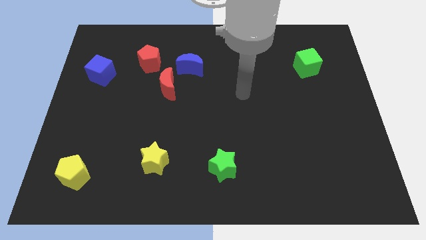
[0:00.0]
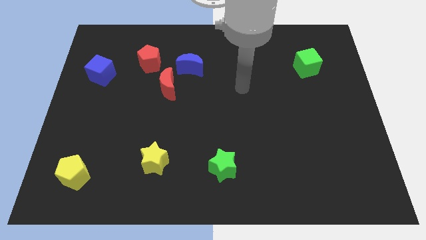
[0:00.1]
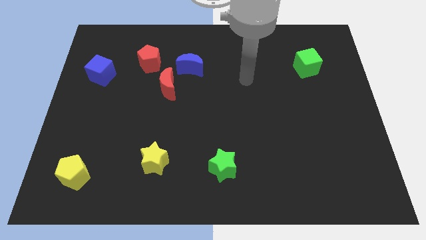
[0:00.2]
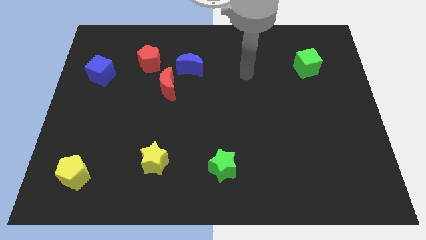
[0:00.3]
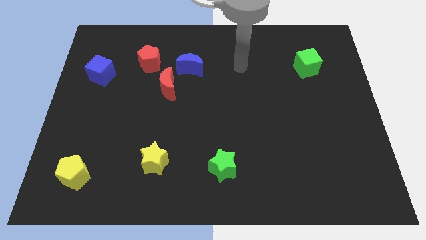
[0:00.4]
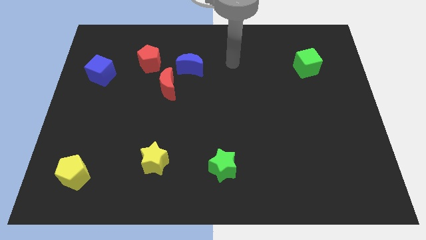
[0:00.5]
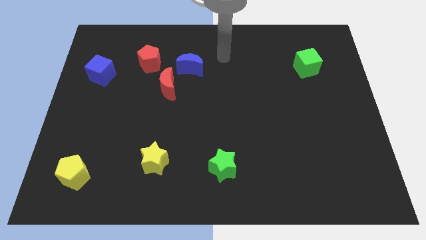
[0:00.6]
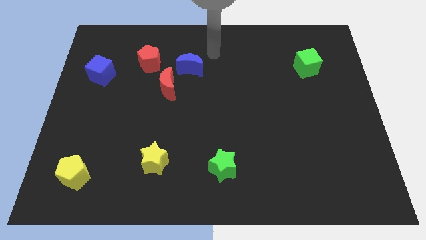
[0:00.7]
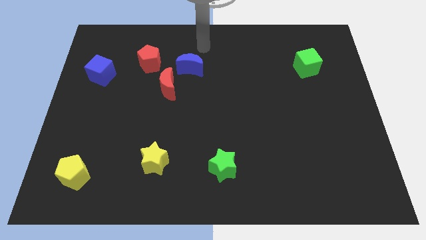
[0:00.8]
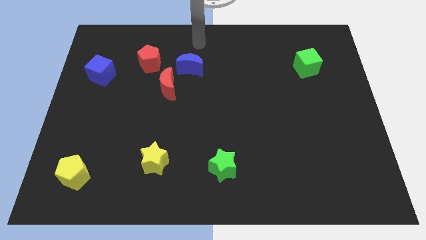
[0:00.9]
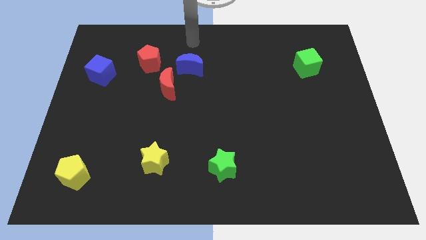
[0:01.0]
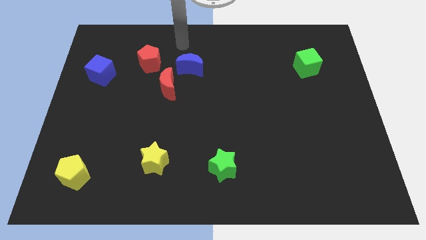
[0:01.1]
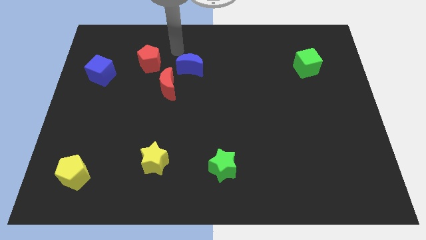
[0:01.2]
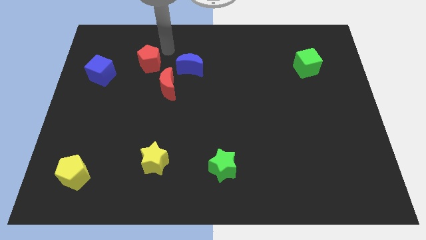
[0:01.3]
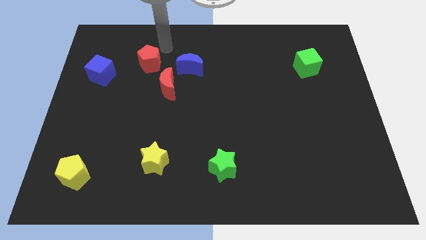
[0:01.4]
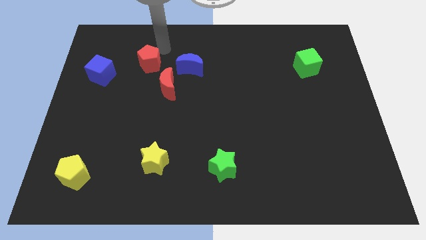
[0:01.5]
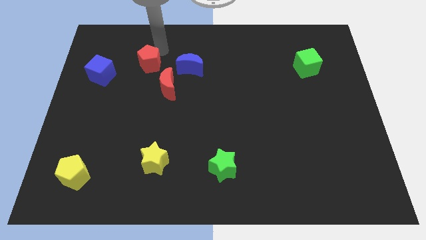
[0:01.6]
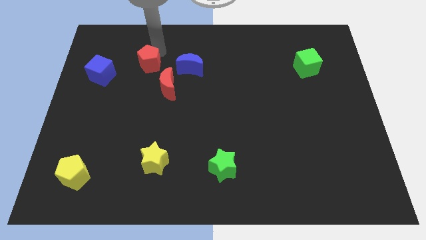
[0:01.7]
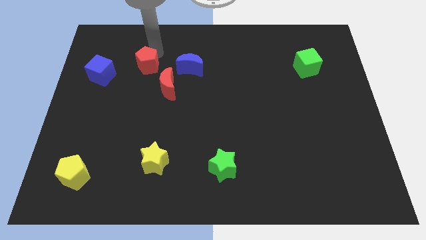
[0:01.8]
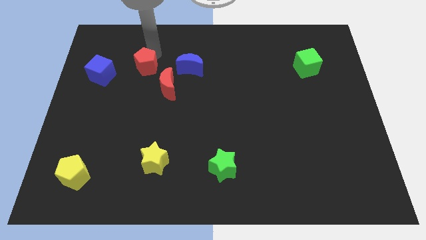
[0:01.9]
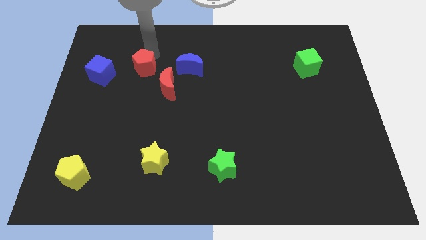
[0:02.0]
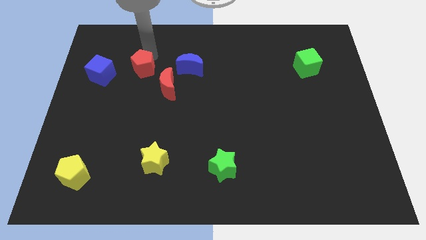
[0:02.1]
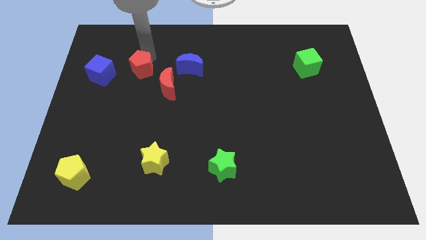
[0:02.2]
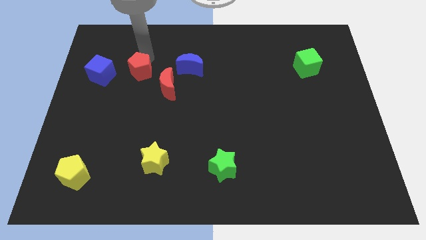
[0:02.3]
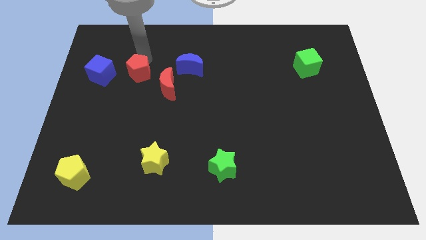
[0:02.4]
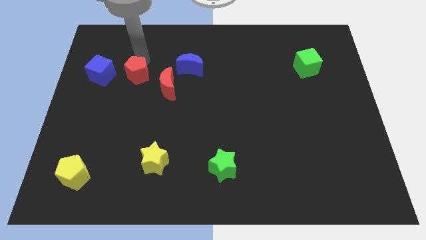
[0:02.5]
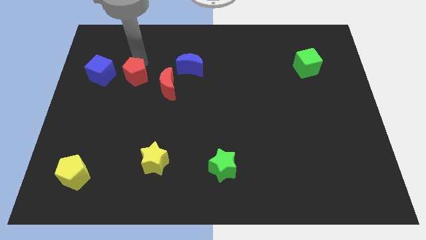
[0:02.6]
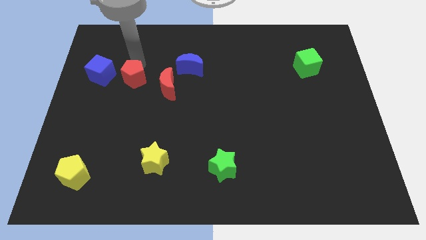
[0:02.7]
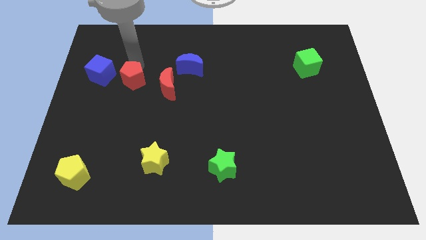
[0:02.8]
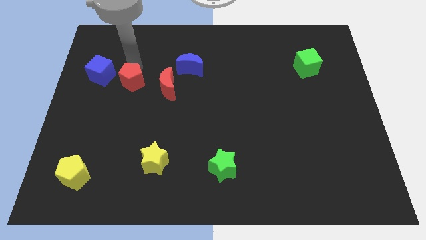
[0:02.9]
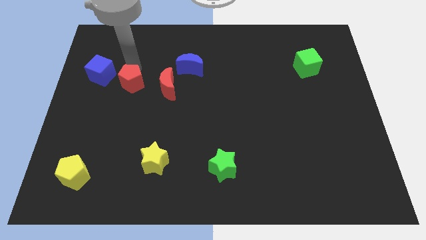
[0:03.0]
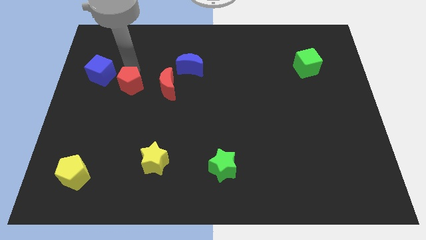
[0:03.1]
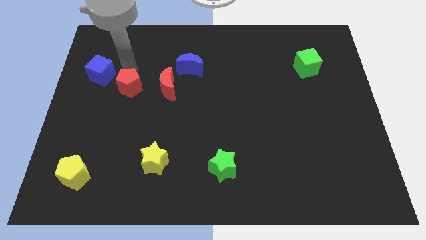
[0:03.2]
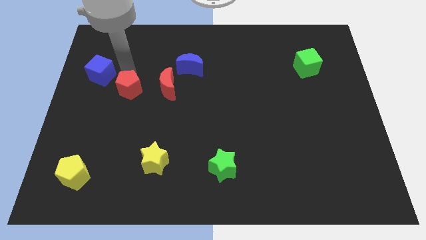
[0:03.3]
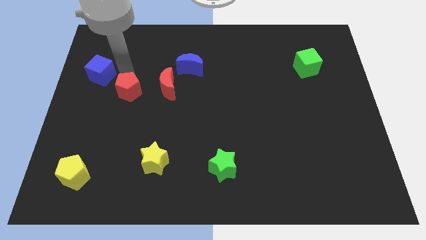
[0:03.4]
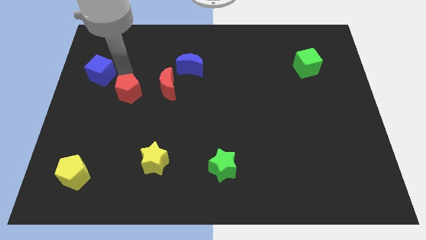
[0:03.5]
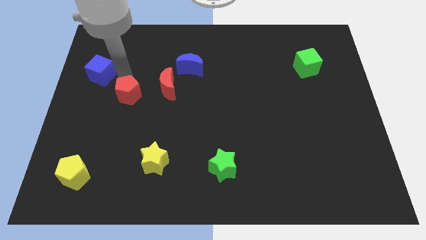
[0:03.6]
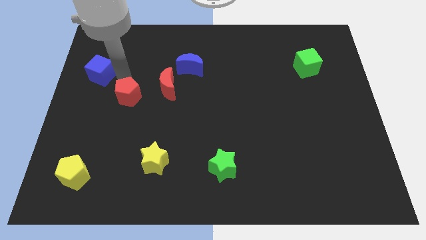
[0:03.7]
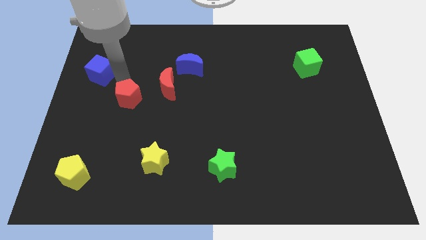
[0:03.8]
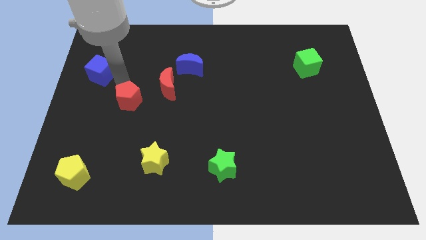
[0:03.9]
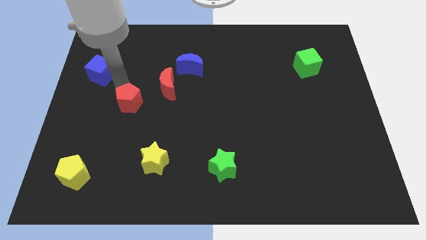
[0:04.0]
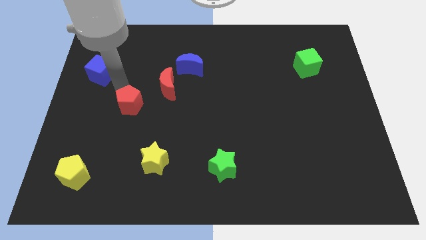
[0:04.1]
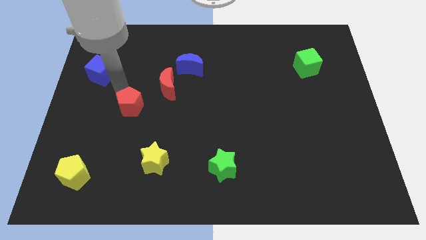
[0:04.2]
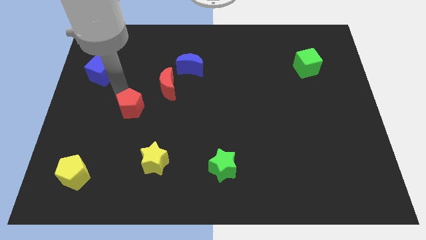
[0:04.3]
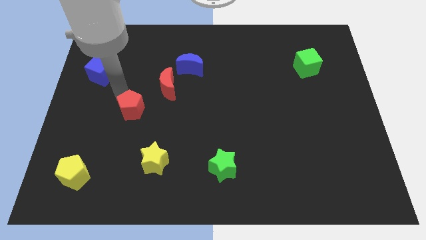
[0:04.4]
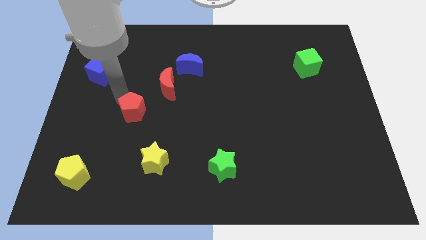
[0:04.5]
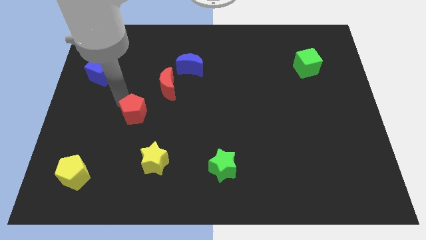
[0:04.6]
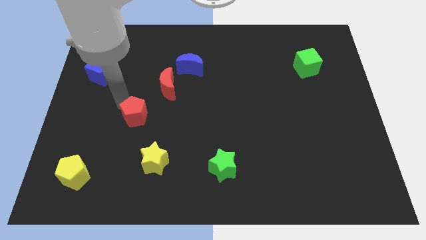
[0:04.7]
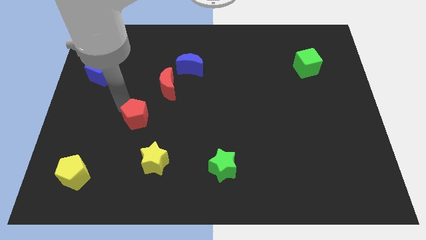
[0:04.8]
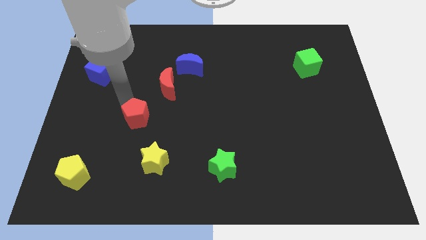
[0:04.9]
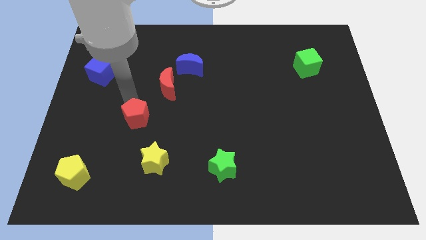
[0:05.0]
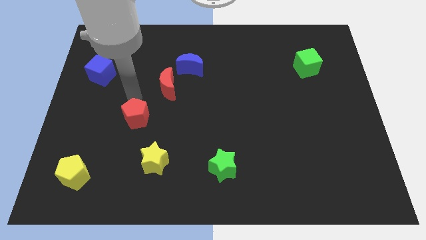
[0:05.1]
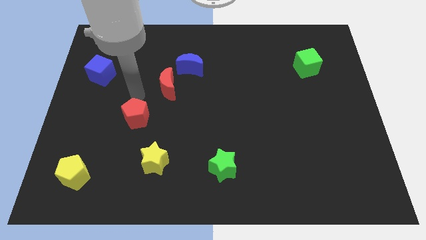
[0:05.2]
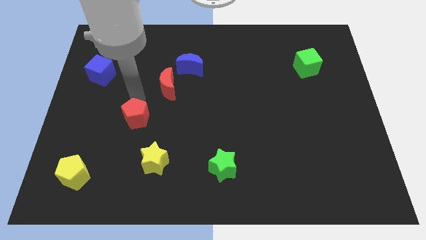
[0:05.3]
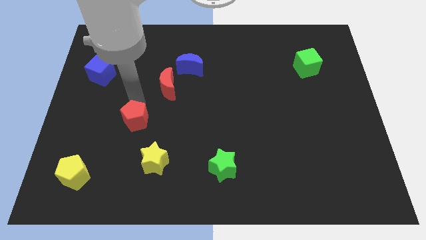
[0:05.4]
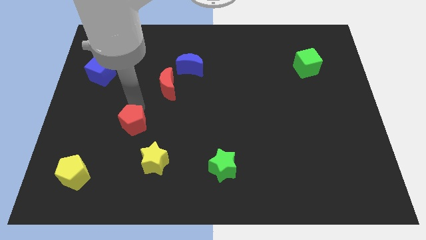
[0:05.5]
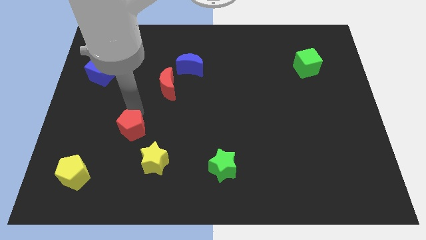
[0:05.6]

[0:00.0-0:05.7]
slide the red pentagon downwards

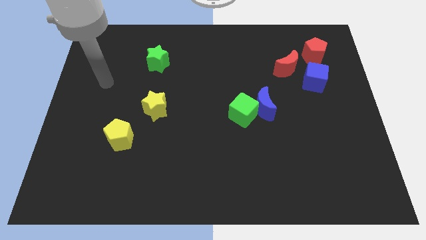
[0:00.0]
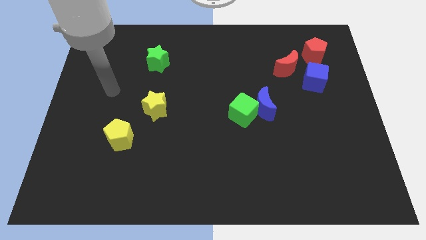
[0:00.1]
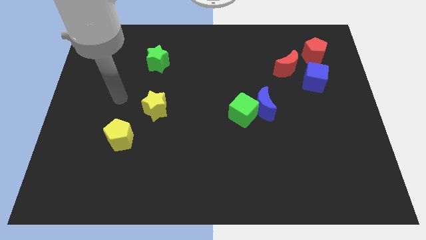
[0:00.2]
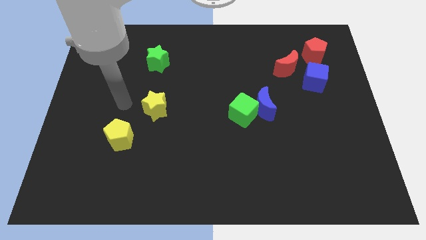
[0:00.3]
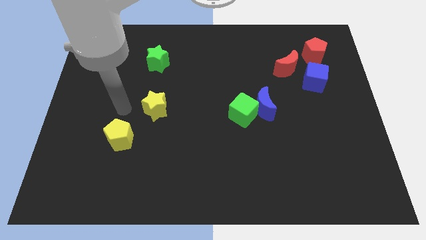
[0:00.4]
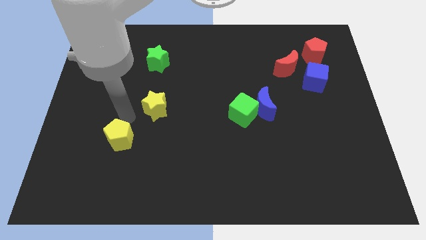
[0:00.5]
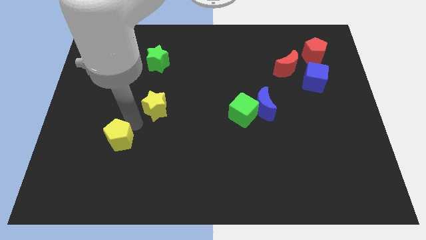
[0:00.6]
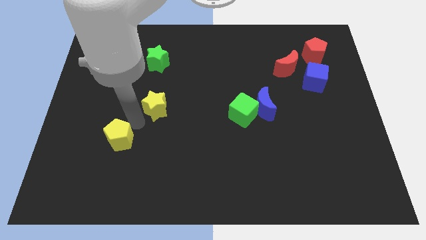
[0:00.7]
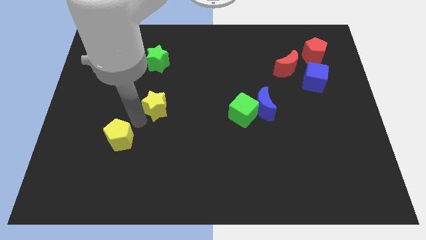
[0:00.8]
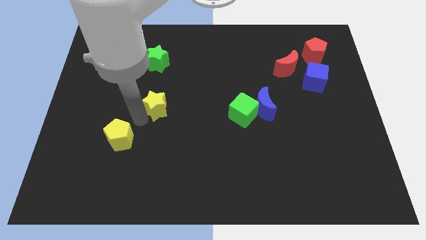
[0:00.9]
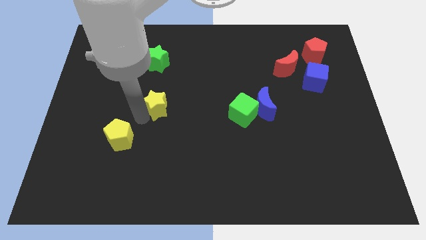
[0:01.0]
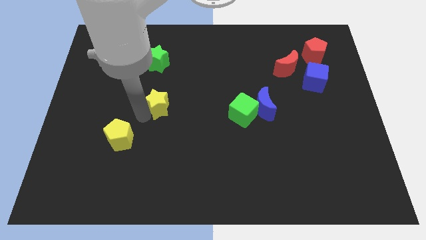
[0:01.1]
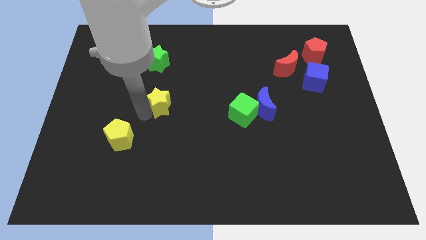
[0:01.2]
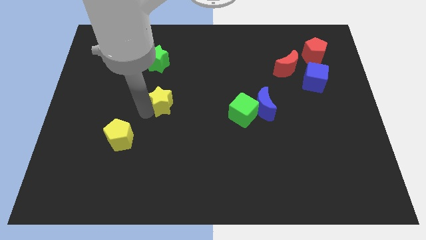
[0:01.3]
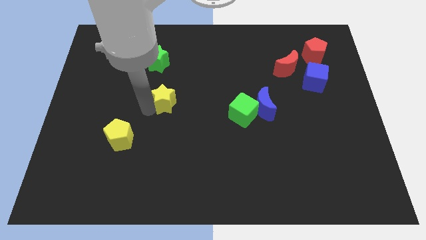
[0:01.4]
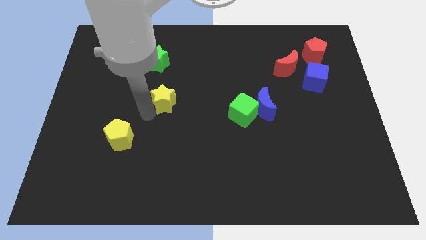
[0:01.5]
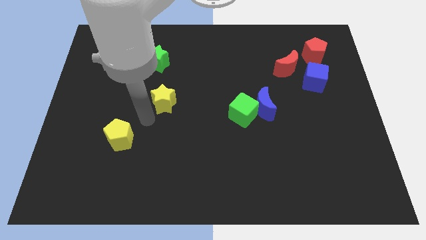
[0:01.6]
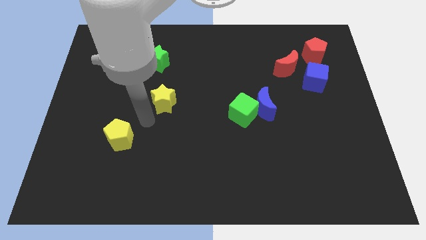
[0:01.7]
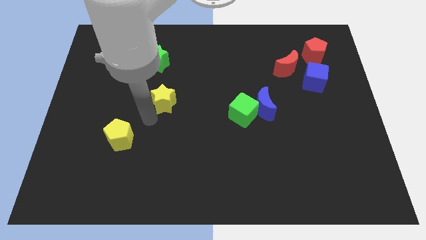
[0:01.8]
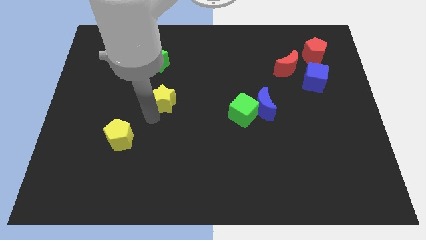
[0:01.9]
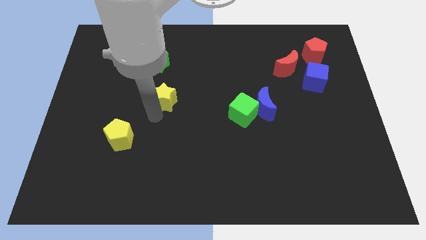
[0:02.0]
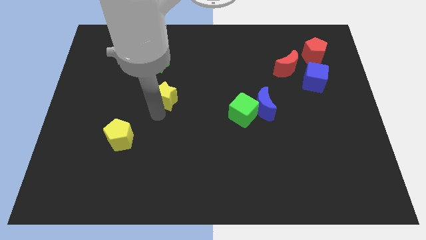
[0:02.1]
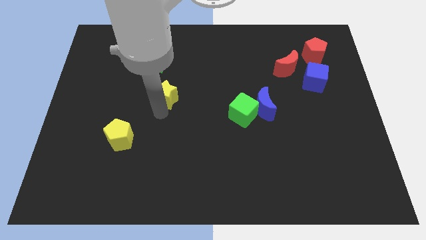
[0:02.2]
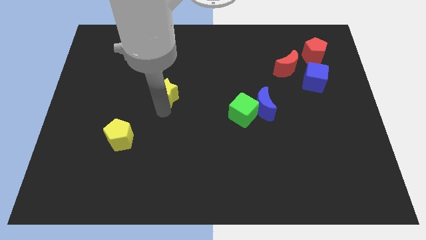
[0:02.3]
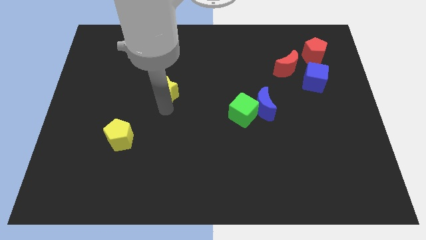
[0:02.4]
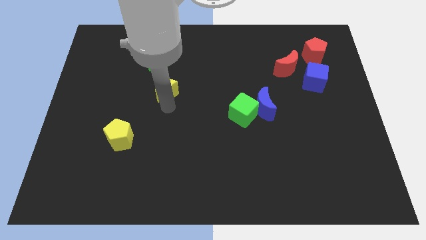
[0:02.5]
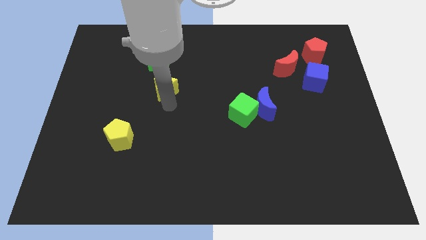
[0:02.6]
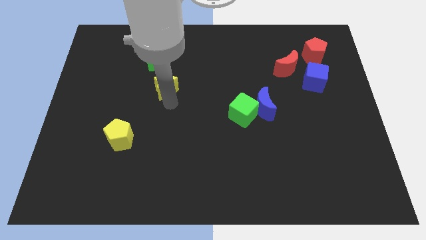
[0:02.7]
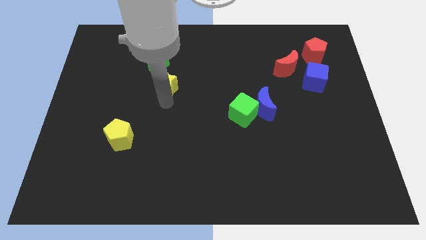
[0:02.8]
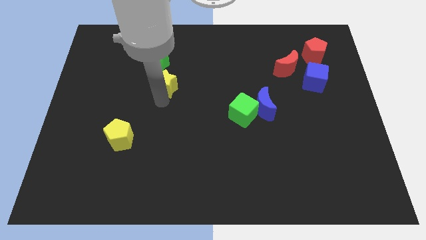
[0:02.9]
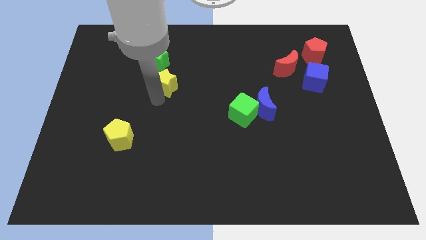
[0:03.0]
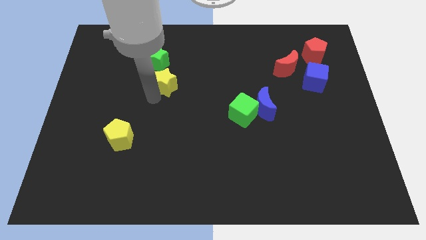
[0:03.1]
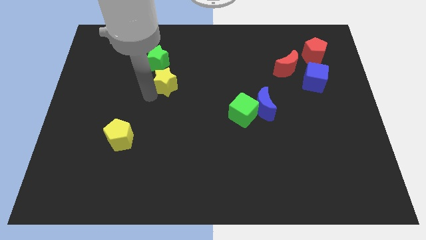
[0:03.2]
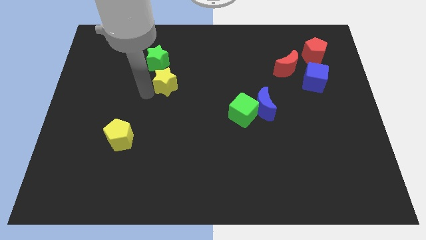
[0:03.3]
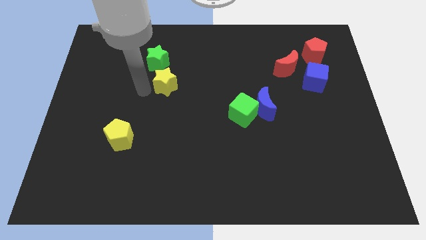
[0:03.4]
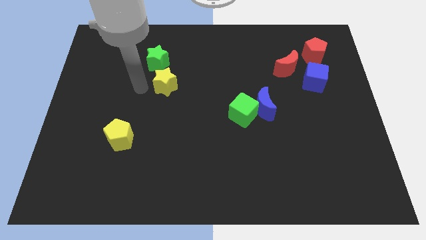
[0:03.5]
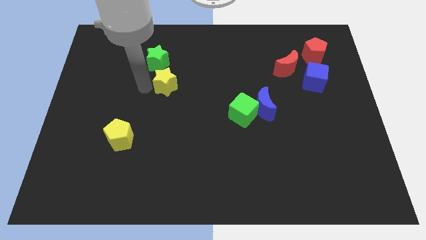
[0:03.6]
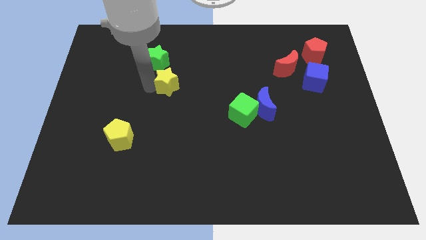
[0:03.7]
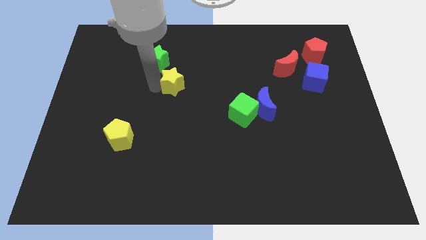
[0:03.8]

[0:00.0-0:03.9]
slightly push the yellow star up and then right
